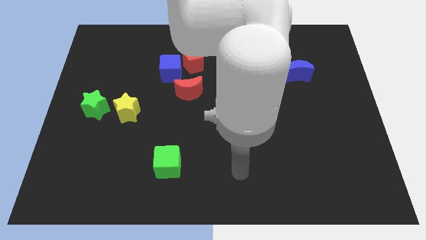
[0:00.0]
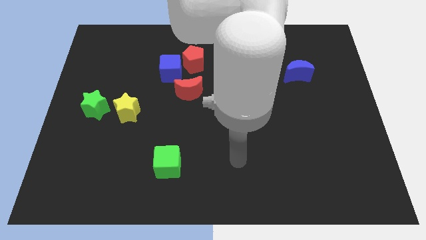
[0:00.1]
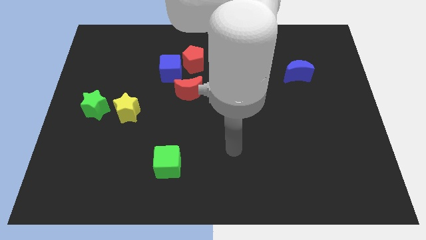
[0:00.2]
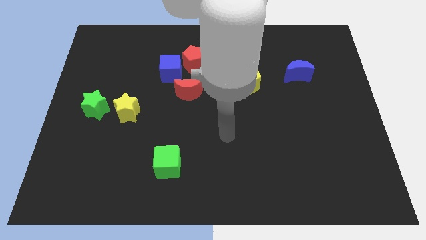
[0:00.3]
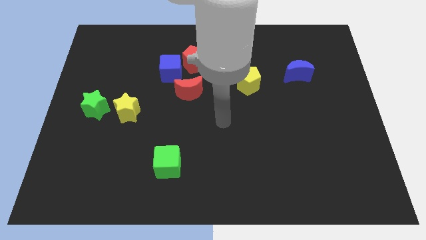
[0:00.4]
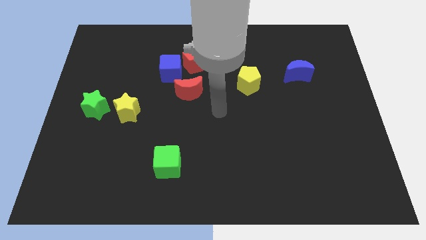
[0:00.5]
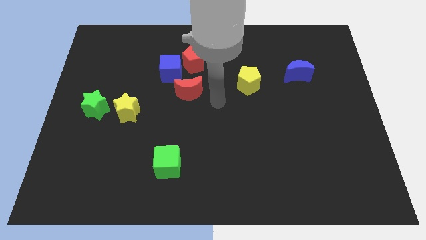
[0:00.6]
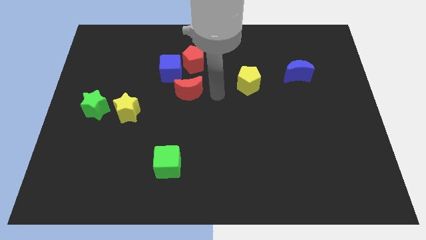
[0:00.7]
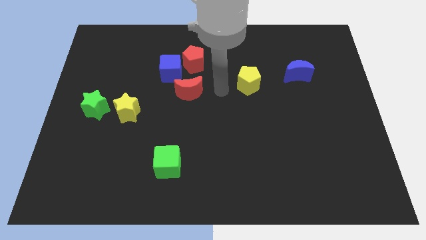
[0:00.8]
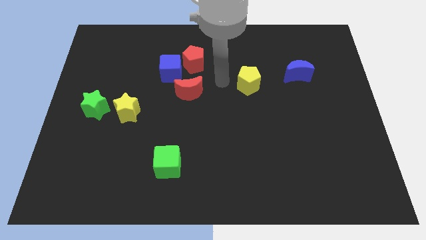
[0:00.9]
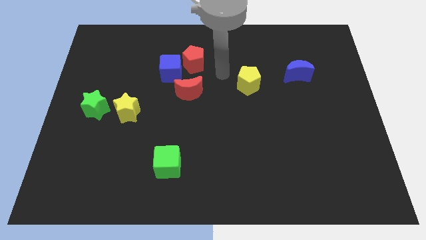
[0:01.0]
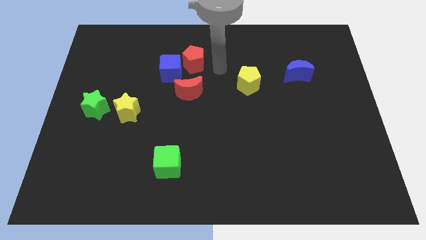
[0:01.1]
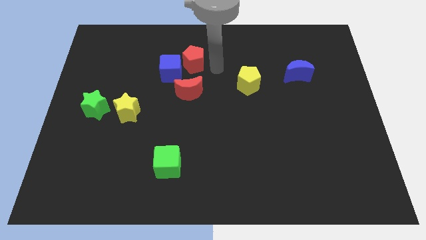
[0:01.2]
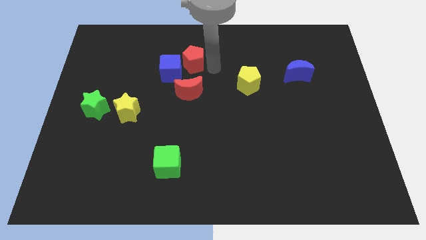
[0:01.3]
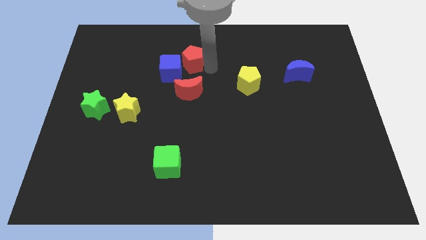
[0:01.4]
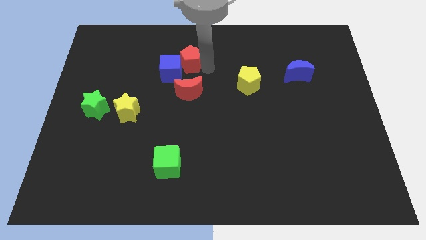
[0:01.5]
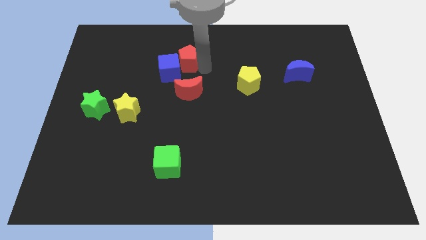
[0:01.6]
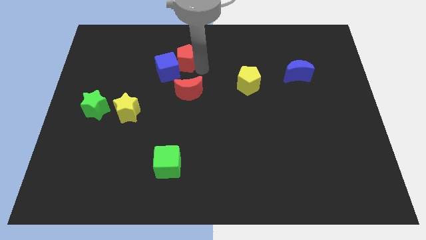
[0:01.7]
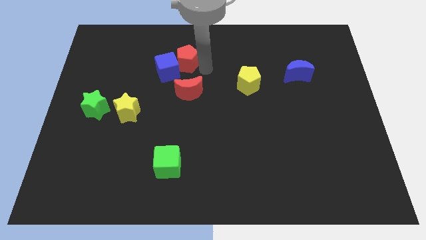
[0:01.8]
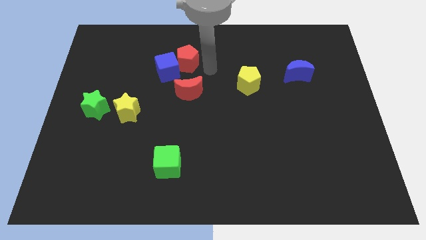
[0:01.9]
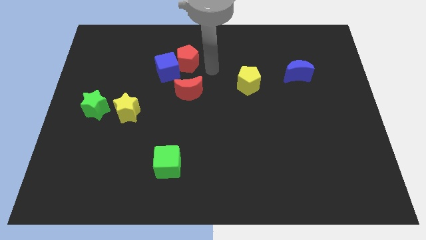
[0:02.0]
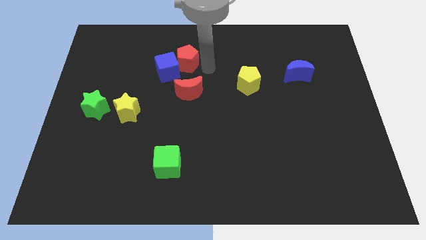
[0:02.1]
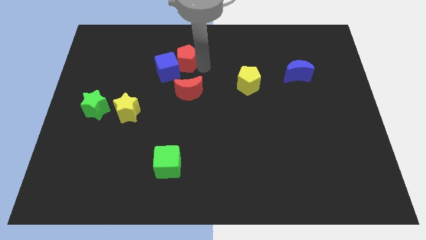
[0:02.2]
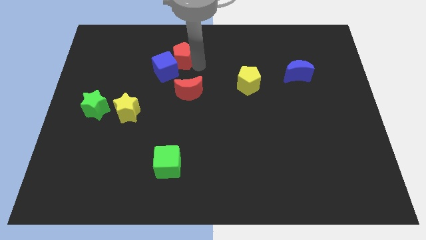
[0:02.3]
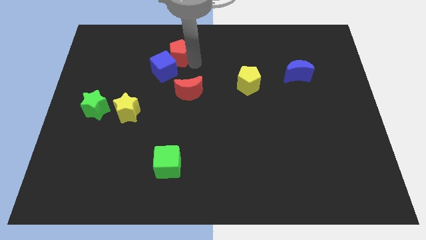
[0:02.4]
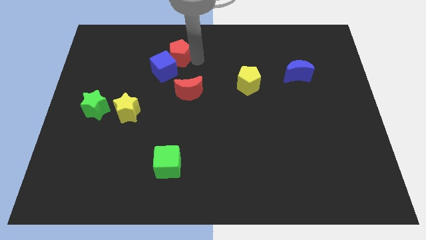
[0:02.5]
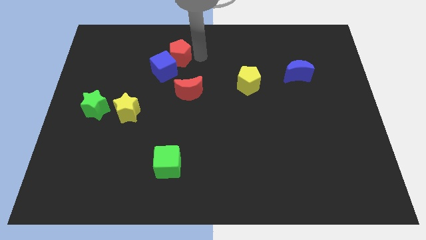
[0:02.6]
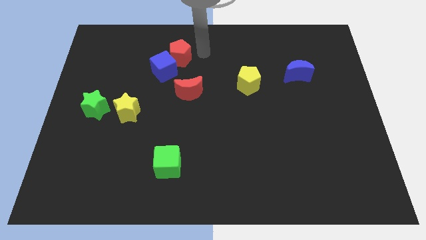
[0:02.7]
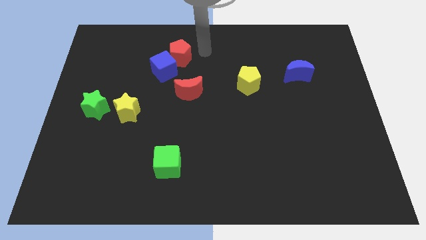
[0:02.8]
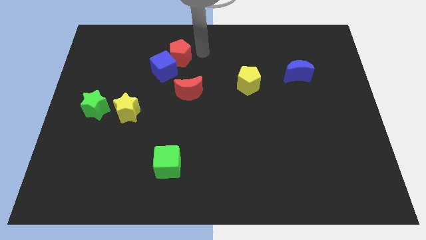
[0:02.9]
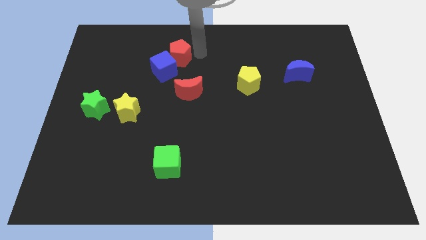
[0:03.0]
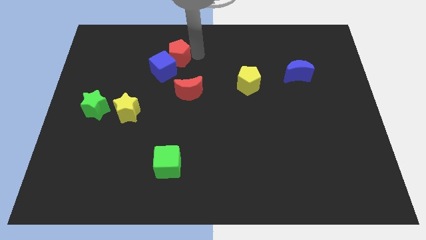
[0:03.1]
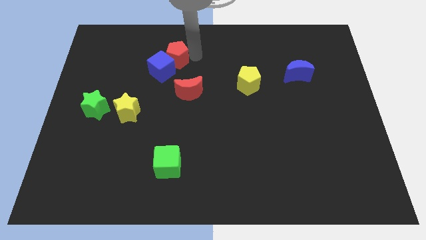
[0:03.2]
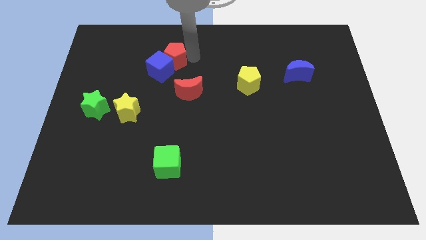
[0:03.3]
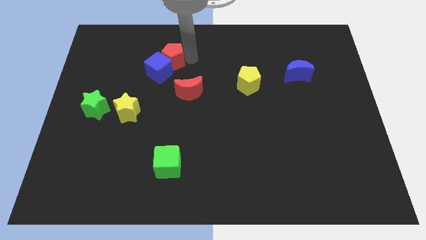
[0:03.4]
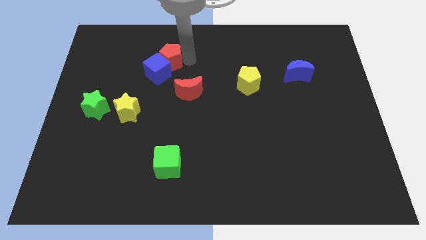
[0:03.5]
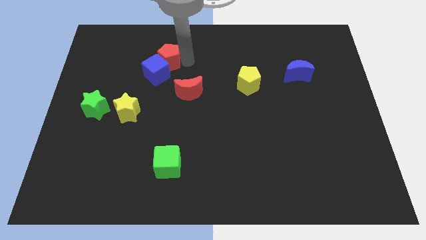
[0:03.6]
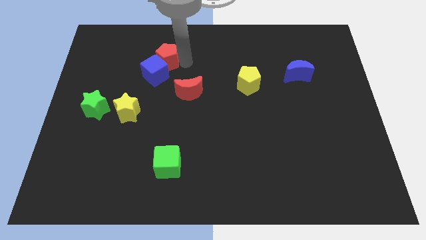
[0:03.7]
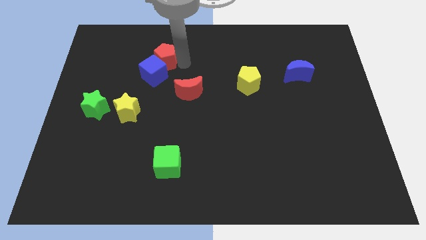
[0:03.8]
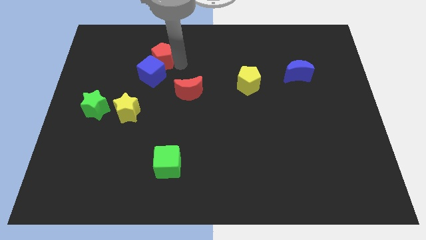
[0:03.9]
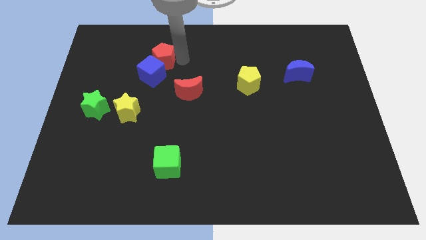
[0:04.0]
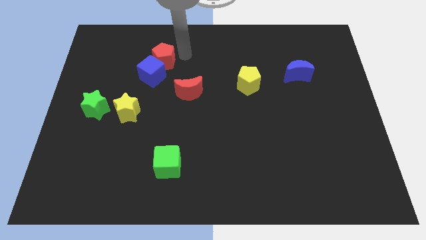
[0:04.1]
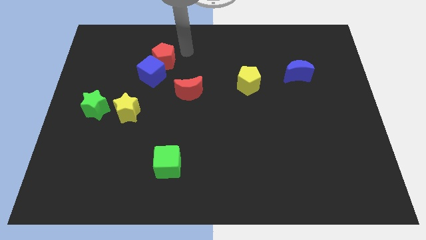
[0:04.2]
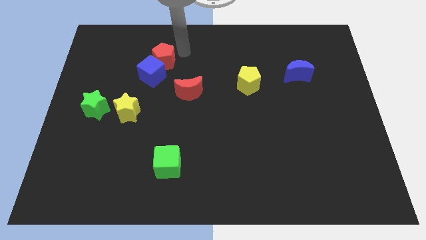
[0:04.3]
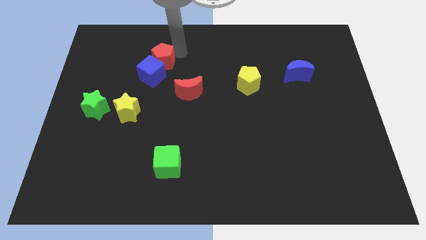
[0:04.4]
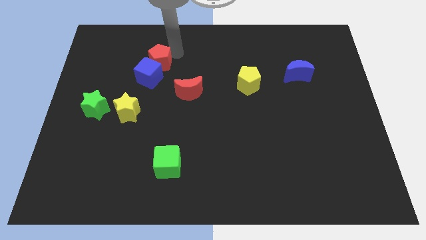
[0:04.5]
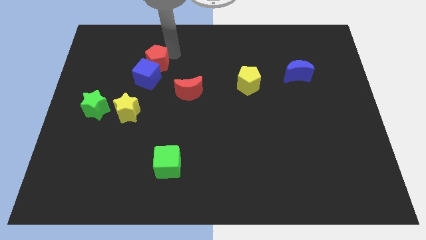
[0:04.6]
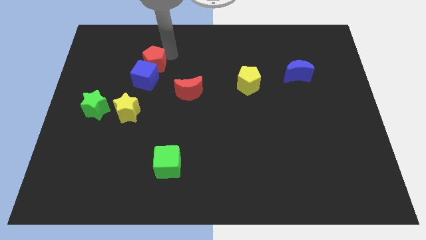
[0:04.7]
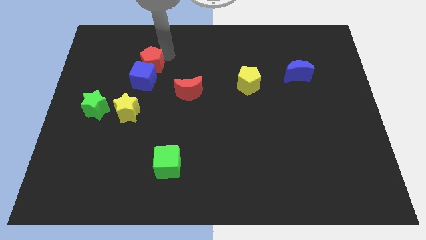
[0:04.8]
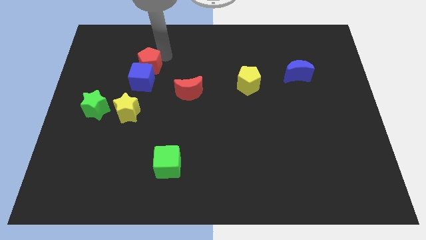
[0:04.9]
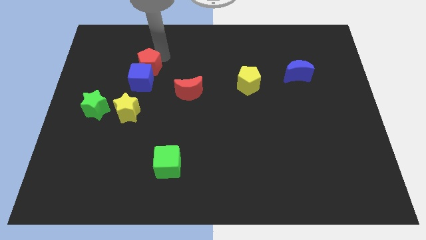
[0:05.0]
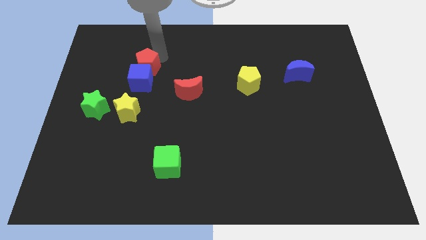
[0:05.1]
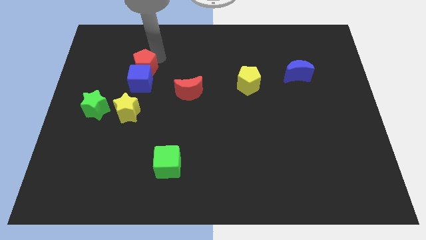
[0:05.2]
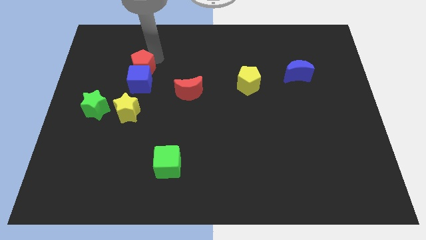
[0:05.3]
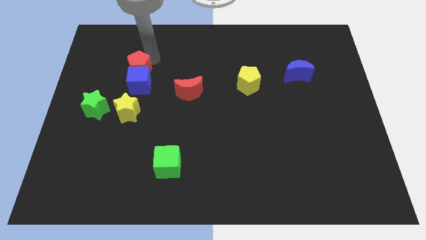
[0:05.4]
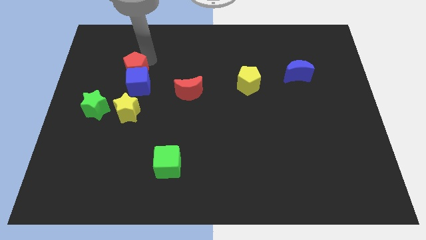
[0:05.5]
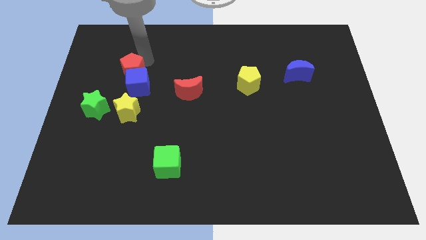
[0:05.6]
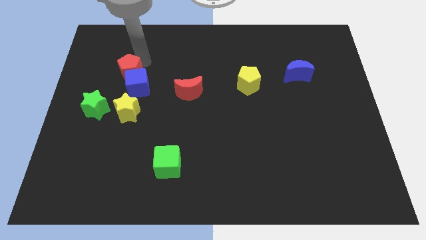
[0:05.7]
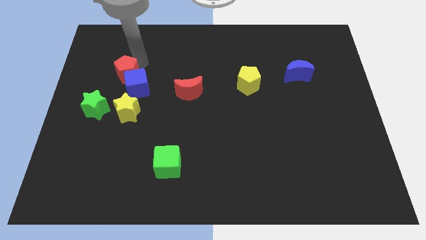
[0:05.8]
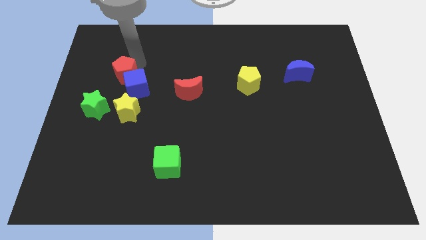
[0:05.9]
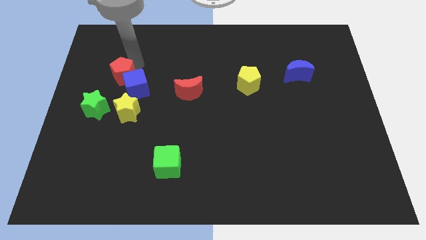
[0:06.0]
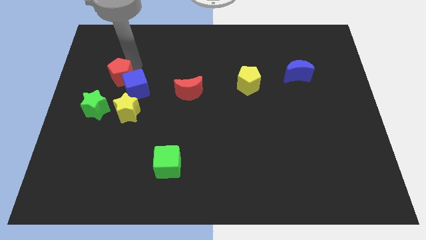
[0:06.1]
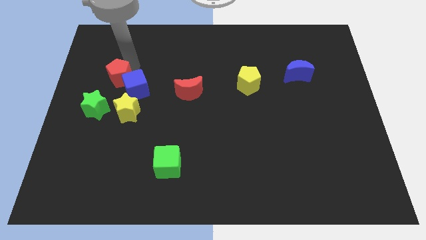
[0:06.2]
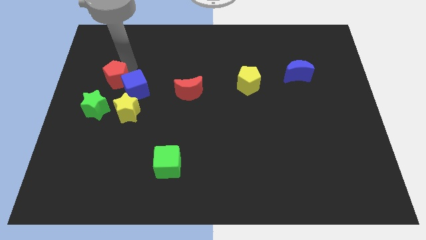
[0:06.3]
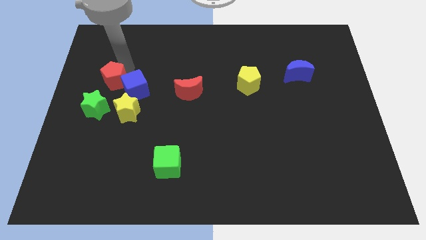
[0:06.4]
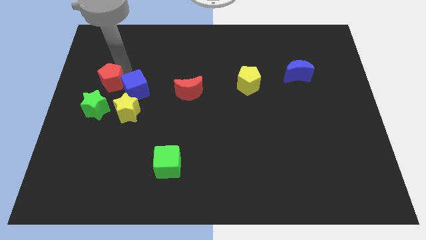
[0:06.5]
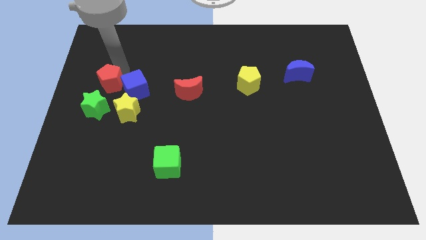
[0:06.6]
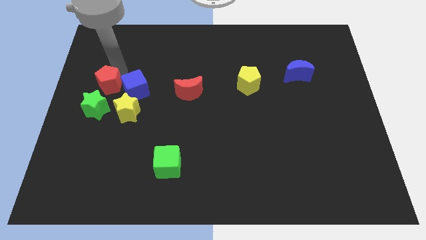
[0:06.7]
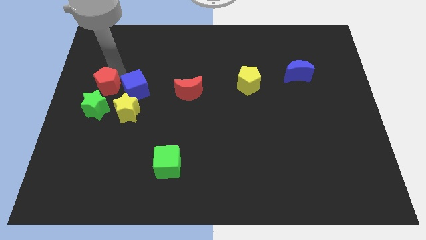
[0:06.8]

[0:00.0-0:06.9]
put the red pentagon to the left side of the board

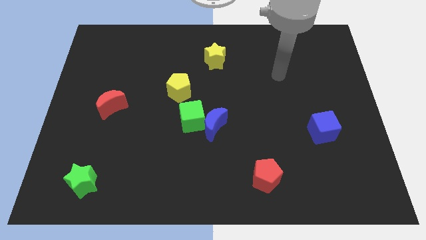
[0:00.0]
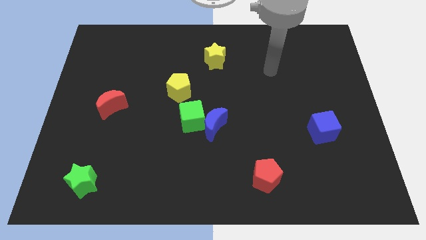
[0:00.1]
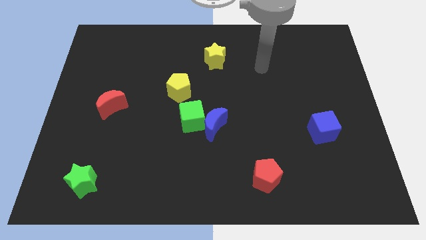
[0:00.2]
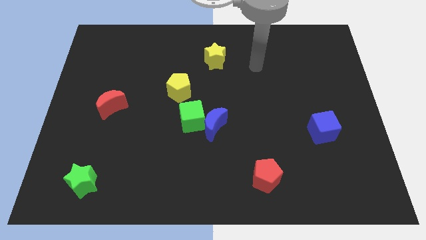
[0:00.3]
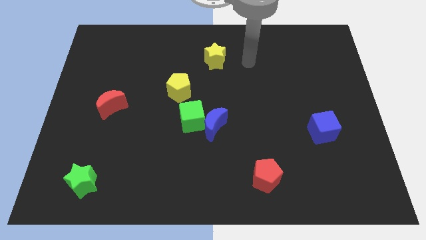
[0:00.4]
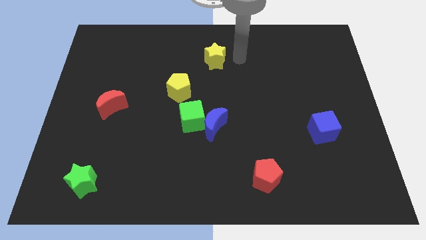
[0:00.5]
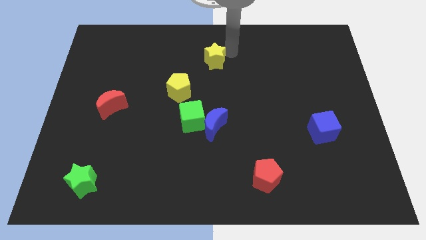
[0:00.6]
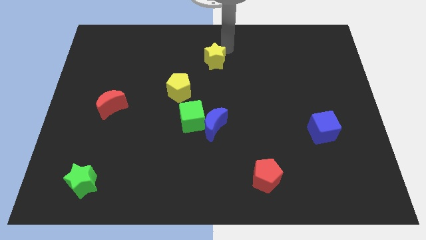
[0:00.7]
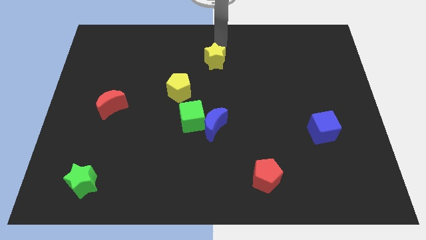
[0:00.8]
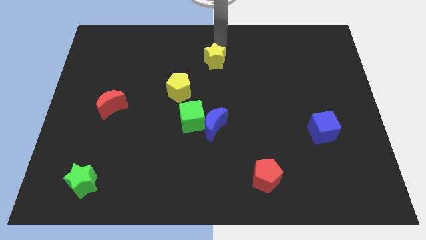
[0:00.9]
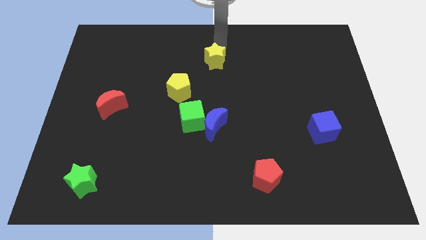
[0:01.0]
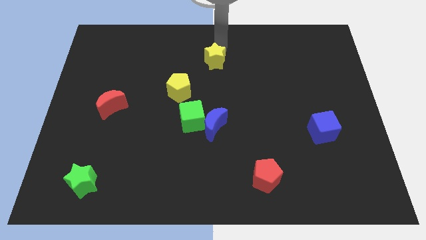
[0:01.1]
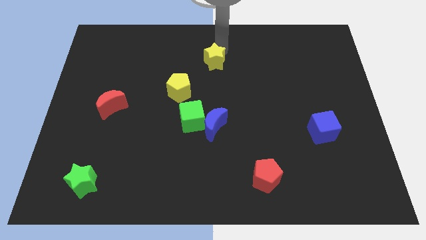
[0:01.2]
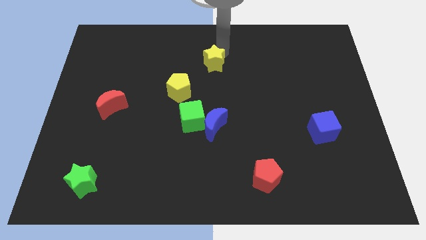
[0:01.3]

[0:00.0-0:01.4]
put the yellow star to the middle of the board
